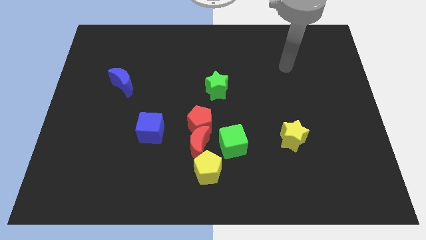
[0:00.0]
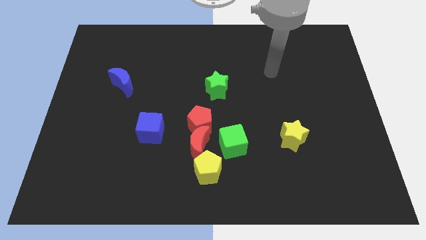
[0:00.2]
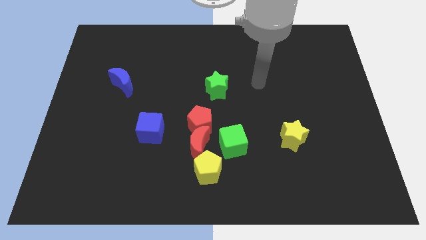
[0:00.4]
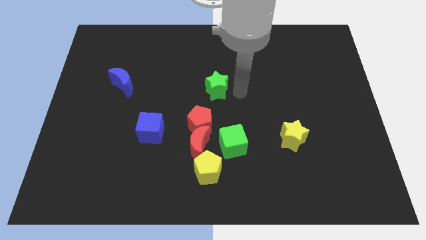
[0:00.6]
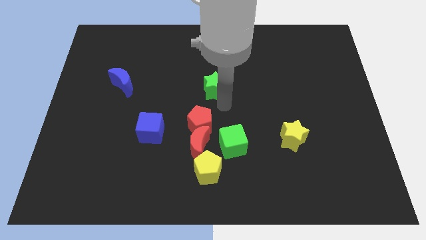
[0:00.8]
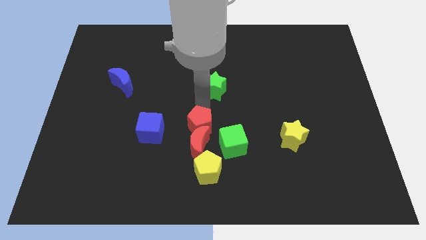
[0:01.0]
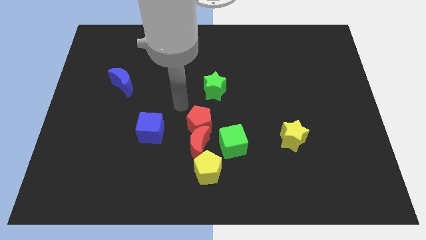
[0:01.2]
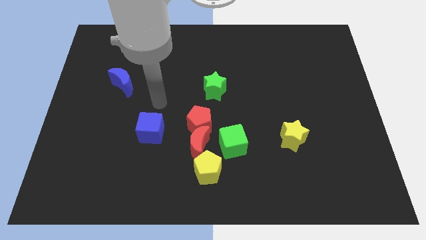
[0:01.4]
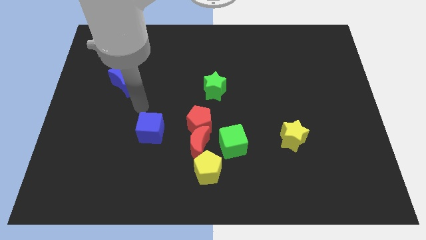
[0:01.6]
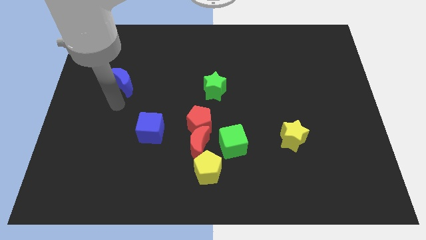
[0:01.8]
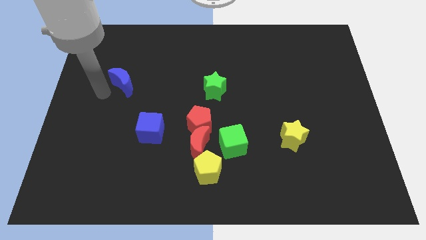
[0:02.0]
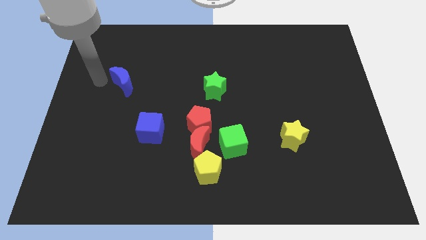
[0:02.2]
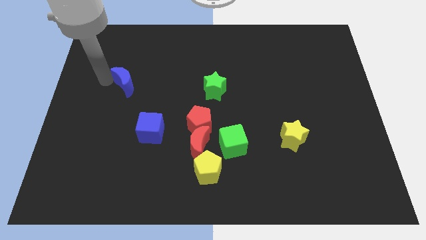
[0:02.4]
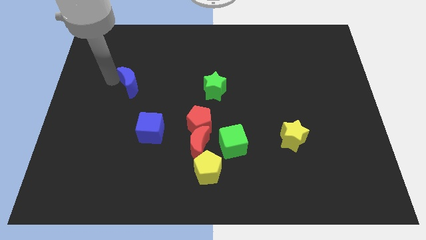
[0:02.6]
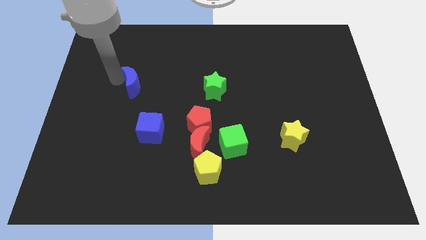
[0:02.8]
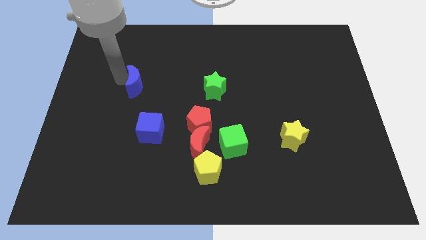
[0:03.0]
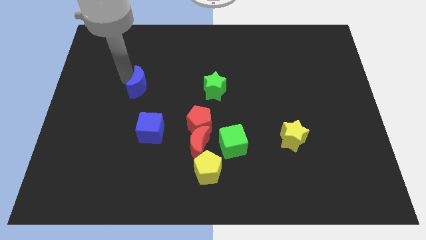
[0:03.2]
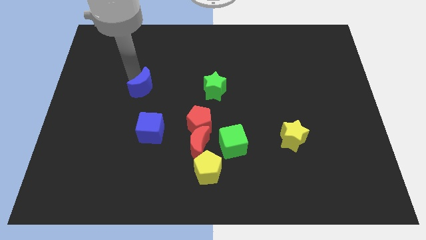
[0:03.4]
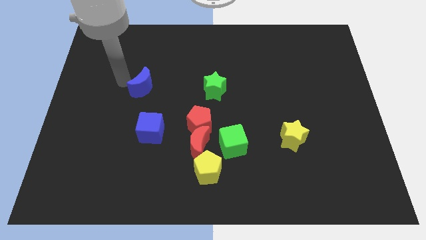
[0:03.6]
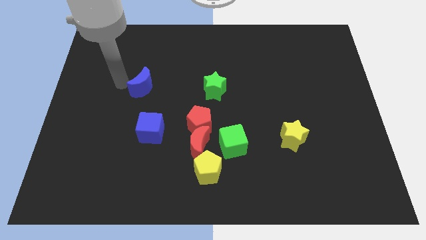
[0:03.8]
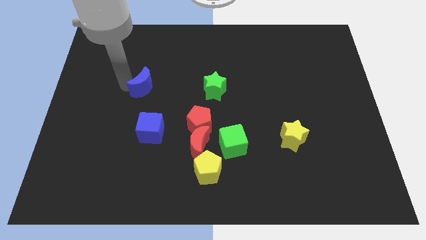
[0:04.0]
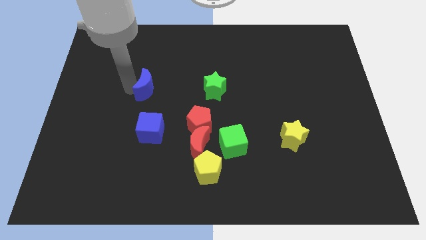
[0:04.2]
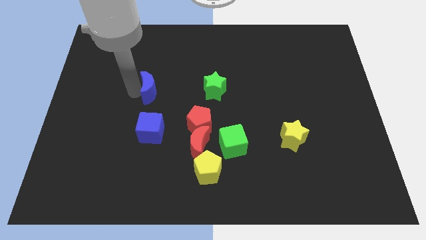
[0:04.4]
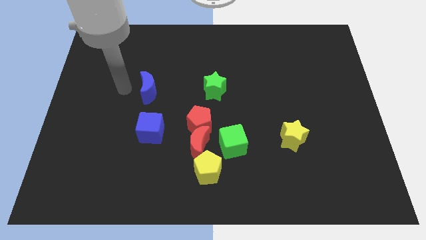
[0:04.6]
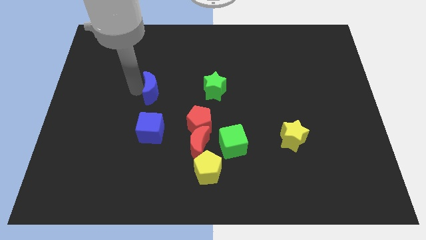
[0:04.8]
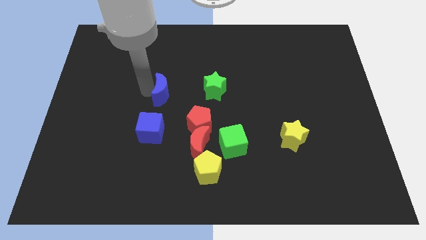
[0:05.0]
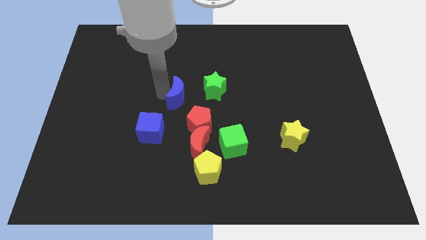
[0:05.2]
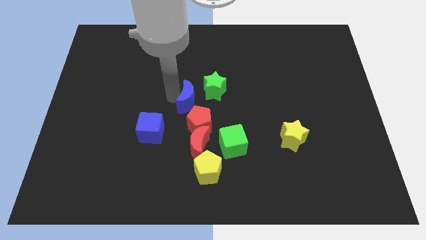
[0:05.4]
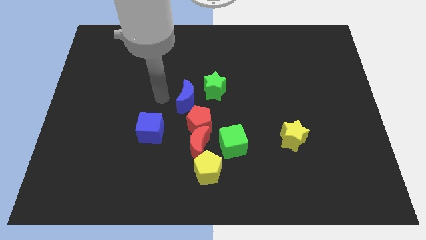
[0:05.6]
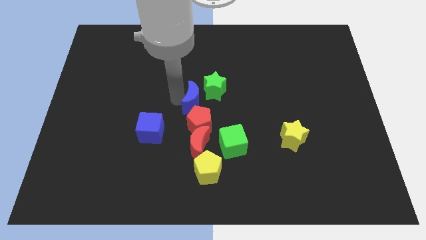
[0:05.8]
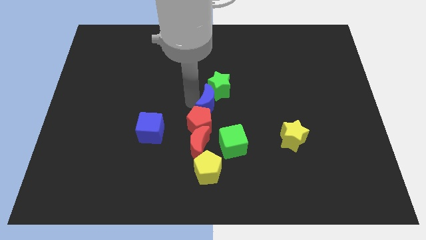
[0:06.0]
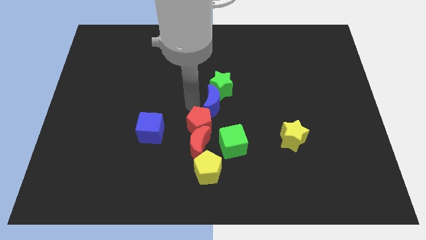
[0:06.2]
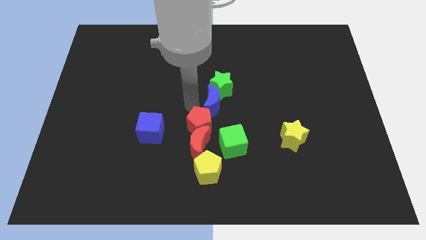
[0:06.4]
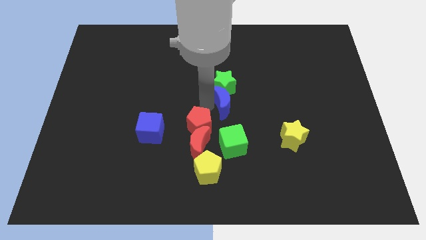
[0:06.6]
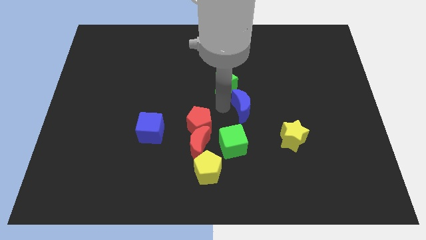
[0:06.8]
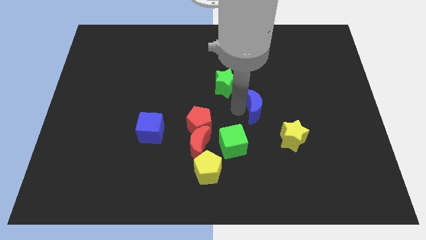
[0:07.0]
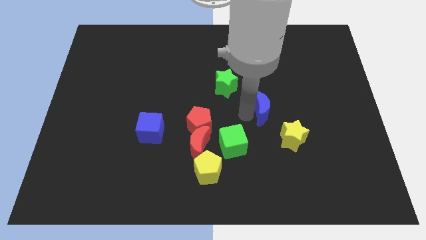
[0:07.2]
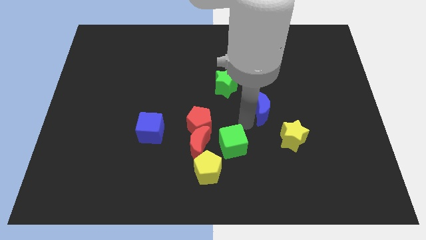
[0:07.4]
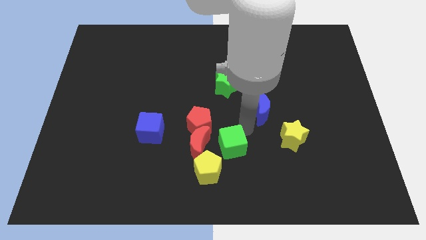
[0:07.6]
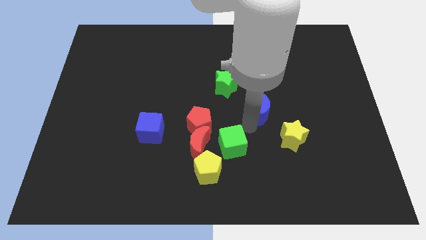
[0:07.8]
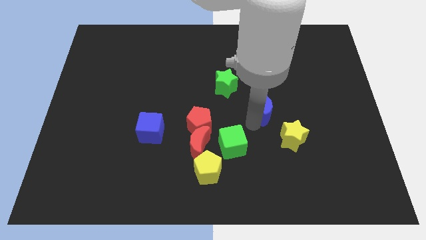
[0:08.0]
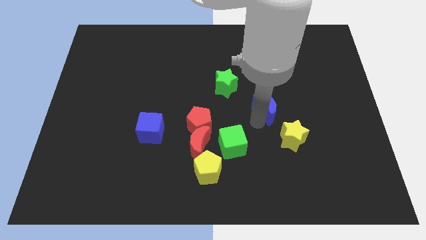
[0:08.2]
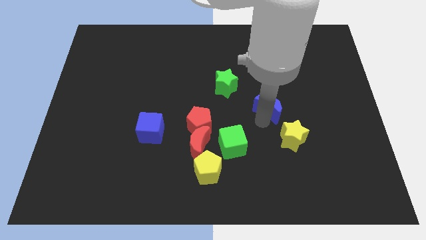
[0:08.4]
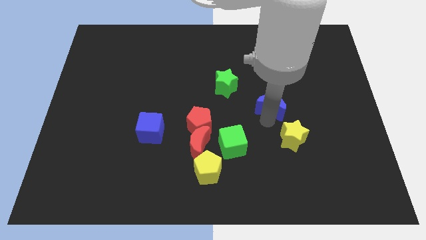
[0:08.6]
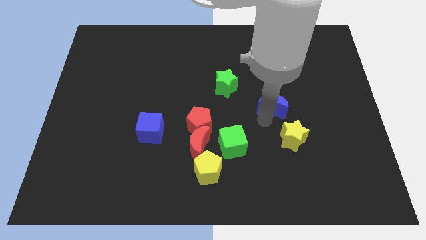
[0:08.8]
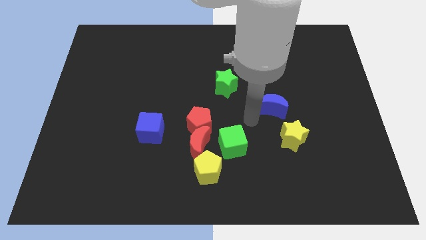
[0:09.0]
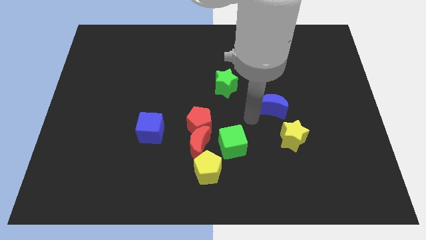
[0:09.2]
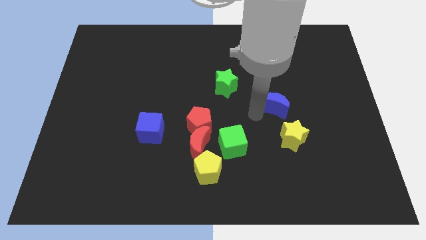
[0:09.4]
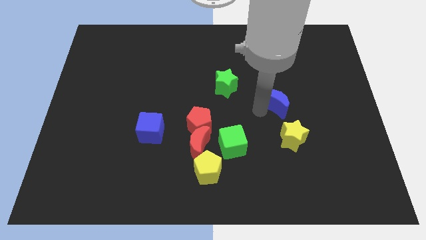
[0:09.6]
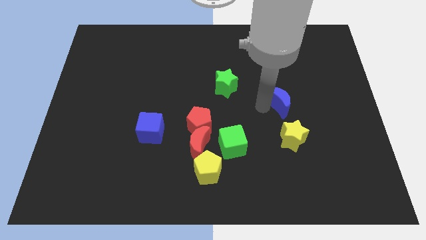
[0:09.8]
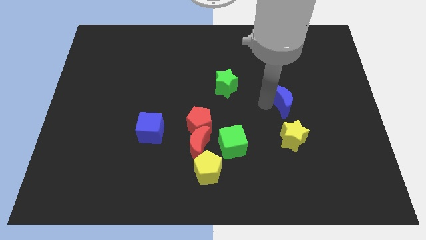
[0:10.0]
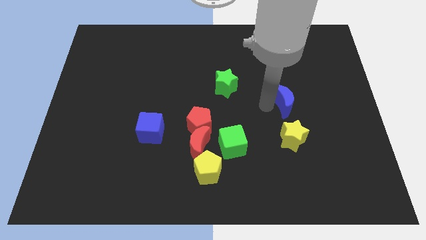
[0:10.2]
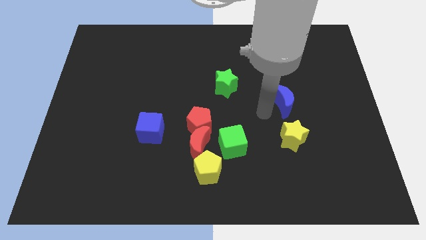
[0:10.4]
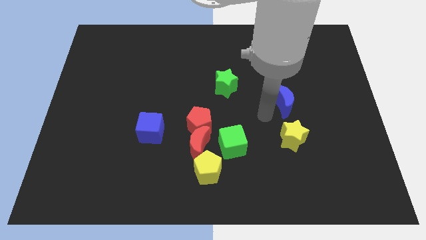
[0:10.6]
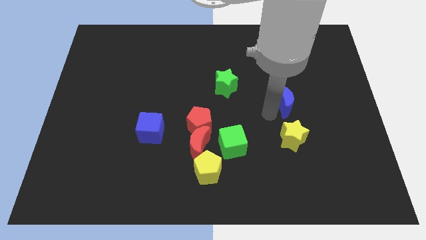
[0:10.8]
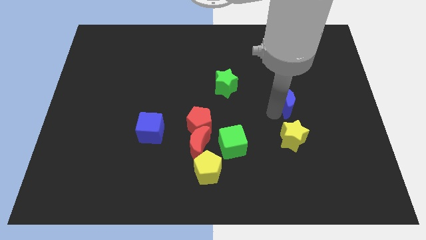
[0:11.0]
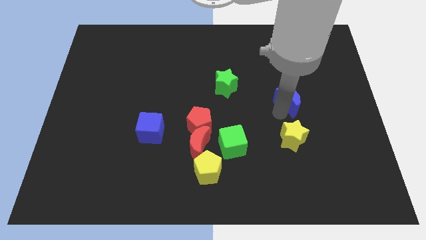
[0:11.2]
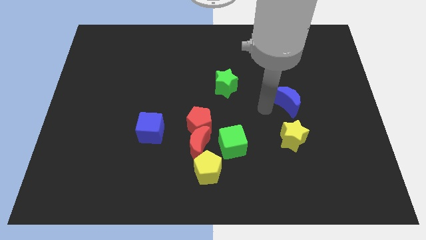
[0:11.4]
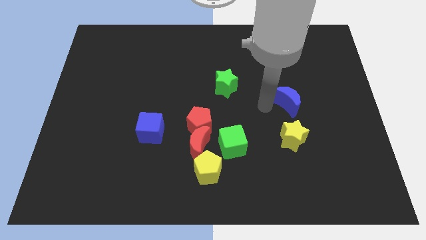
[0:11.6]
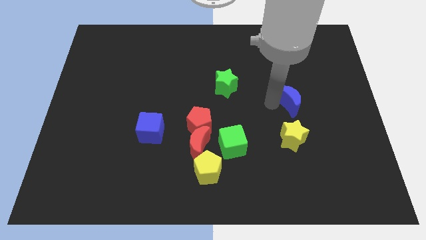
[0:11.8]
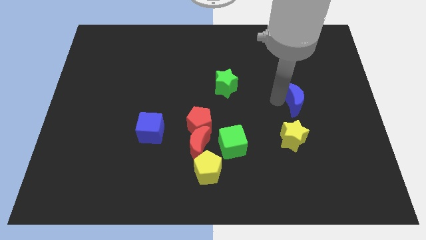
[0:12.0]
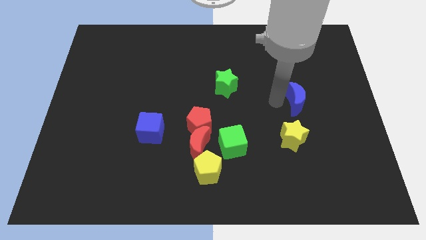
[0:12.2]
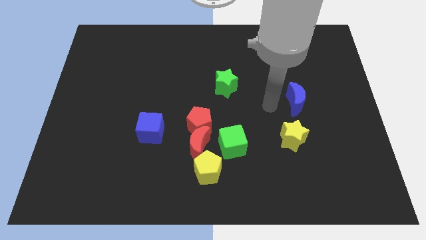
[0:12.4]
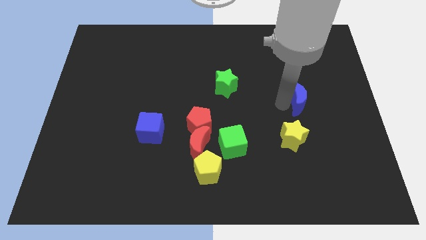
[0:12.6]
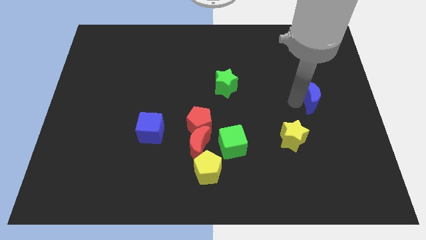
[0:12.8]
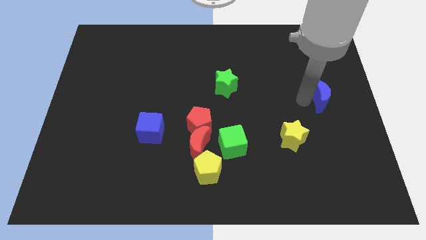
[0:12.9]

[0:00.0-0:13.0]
move the blue moon to the right side of the board
